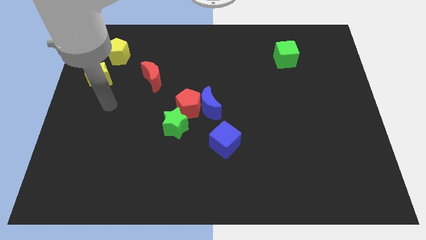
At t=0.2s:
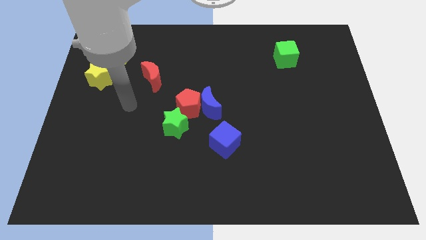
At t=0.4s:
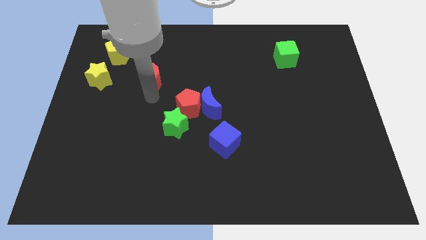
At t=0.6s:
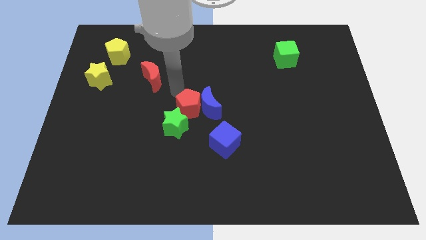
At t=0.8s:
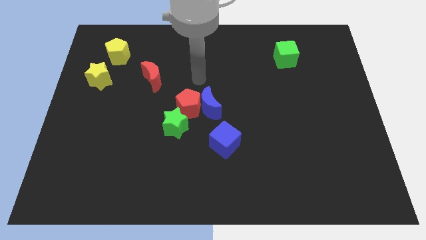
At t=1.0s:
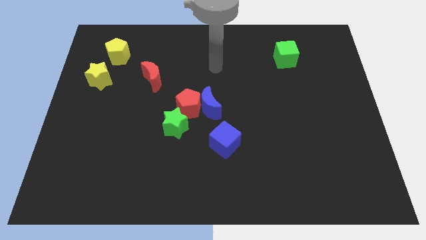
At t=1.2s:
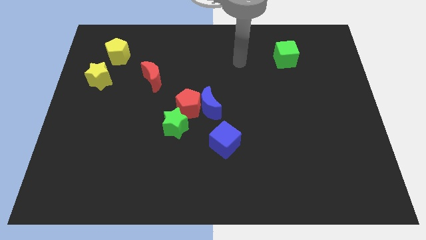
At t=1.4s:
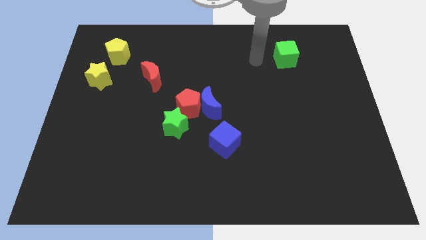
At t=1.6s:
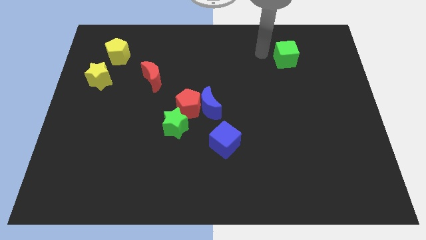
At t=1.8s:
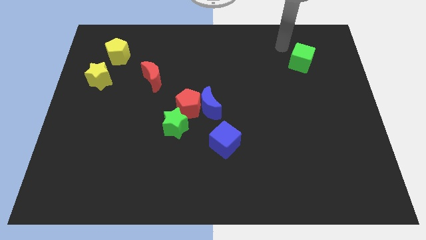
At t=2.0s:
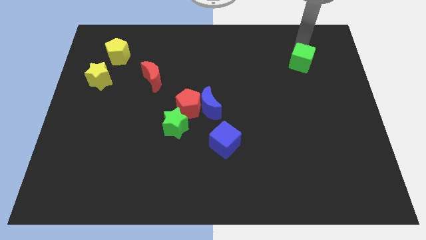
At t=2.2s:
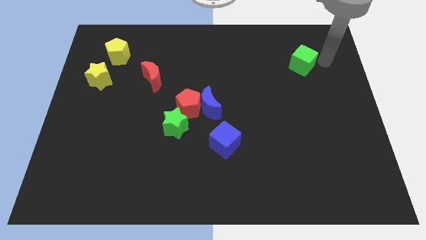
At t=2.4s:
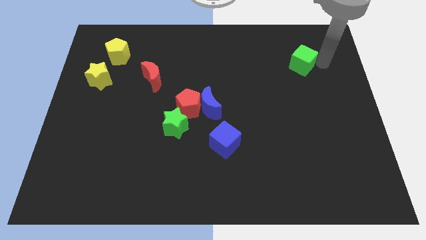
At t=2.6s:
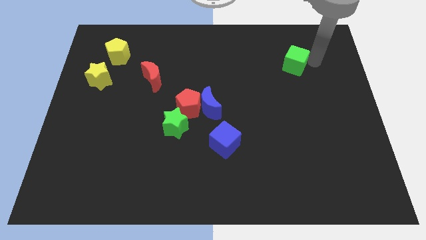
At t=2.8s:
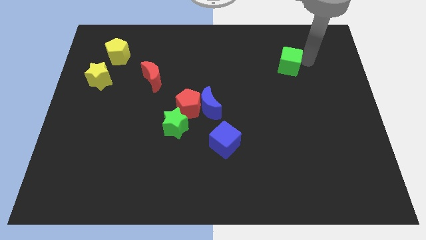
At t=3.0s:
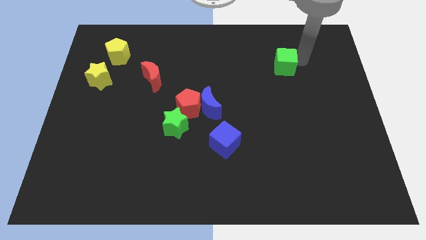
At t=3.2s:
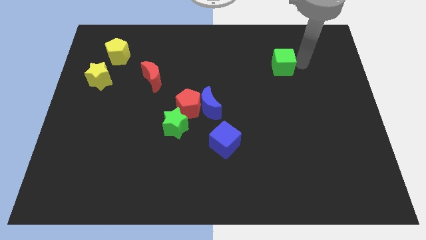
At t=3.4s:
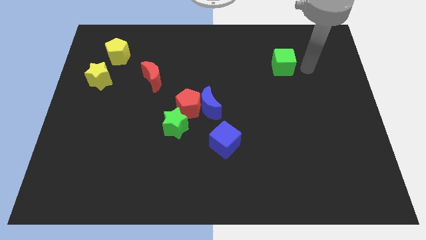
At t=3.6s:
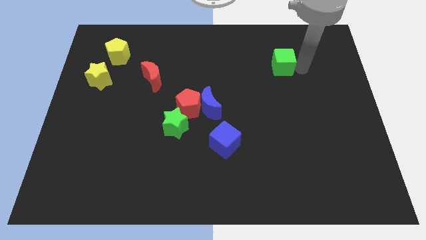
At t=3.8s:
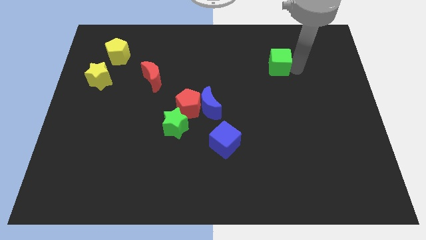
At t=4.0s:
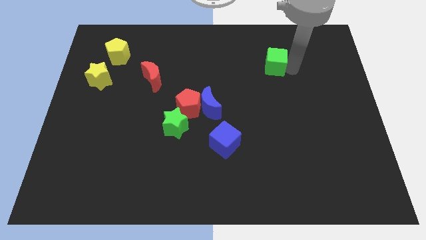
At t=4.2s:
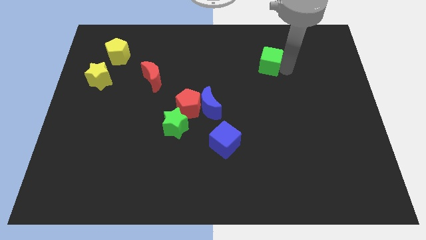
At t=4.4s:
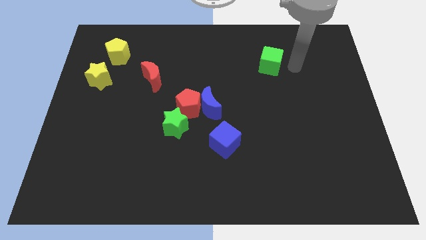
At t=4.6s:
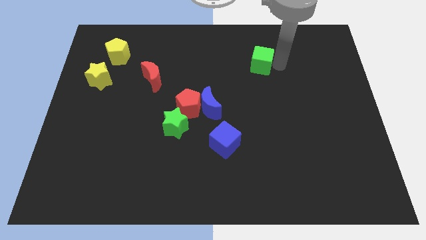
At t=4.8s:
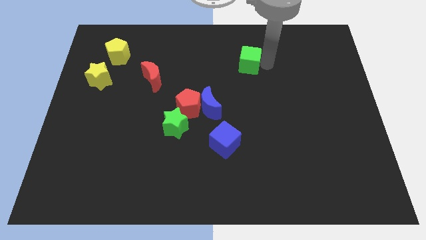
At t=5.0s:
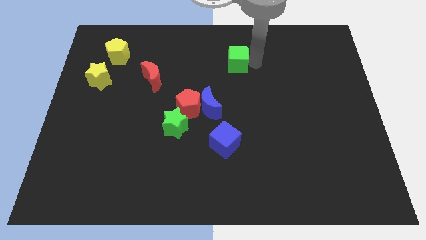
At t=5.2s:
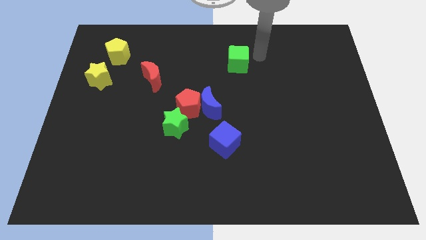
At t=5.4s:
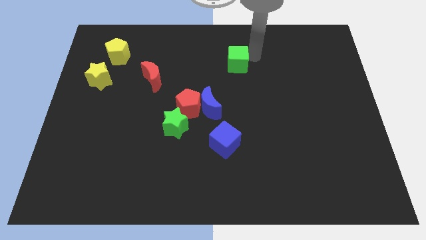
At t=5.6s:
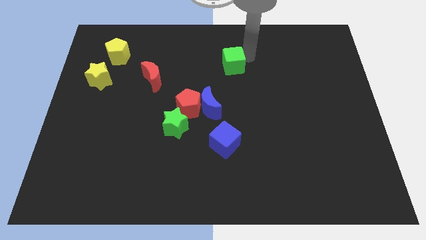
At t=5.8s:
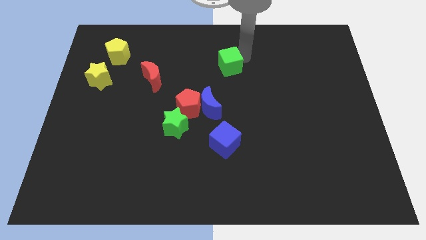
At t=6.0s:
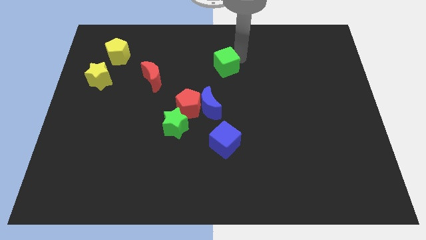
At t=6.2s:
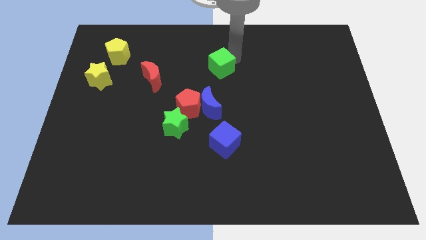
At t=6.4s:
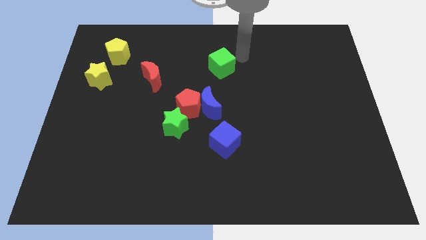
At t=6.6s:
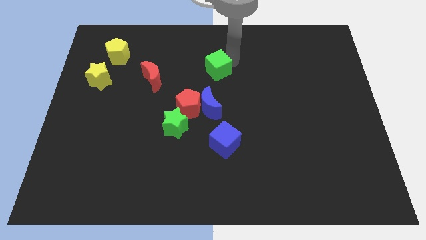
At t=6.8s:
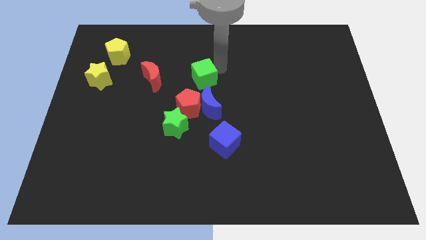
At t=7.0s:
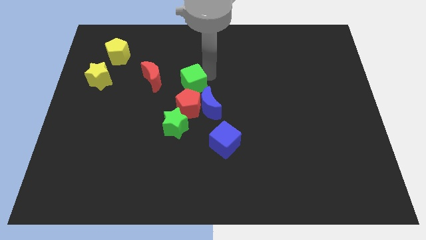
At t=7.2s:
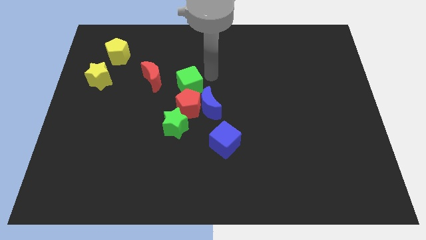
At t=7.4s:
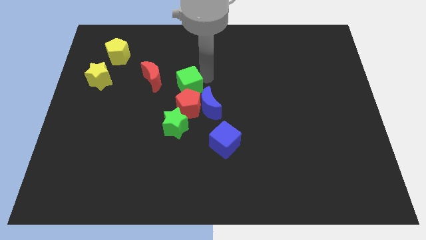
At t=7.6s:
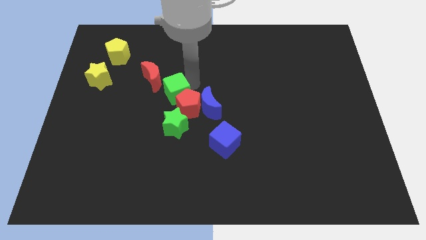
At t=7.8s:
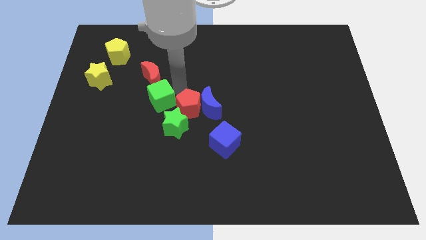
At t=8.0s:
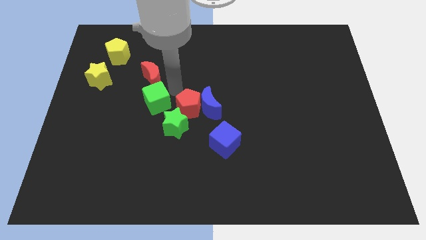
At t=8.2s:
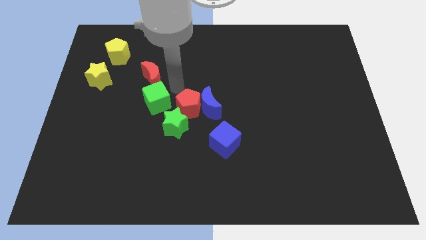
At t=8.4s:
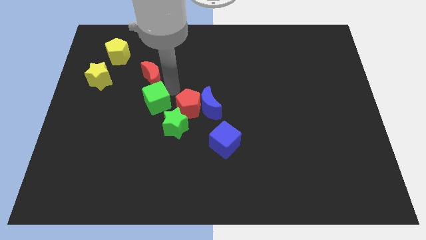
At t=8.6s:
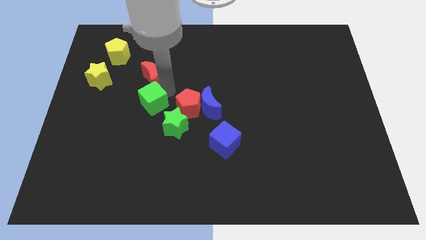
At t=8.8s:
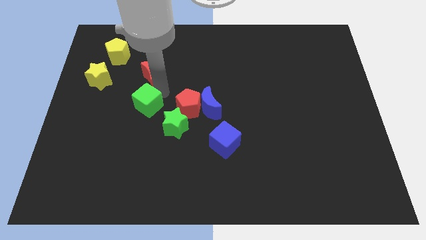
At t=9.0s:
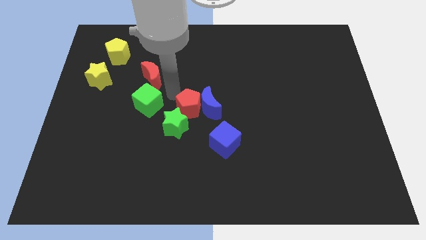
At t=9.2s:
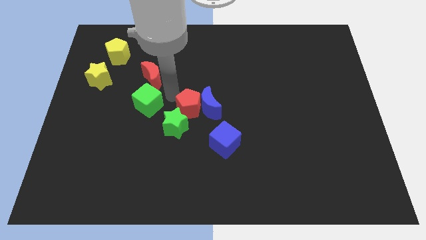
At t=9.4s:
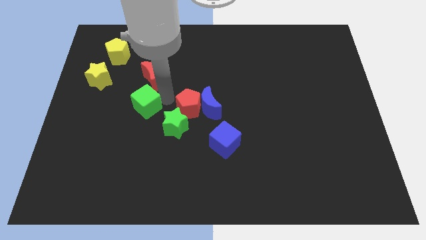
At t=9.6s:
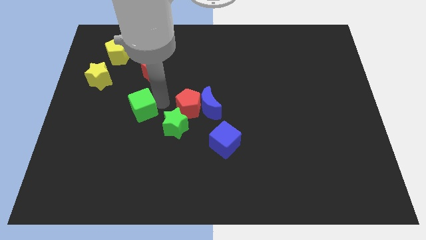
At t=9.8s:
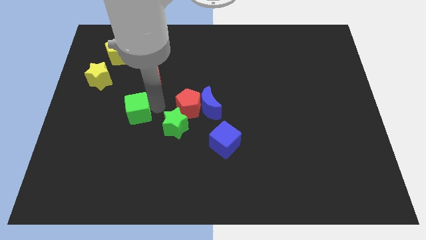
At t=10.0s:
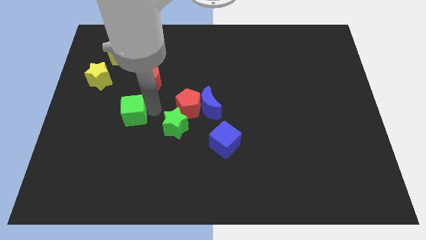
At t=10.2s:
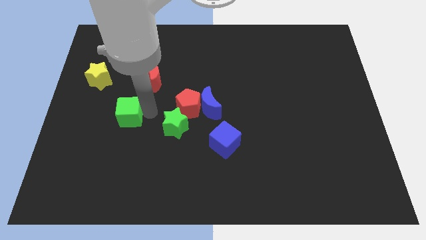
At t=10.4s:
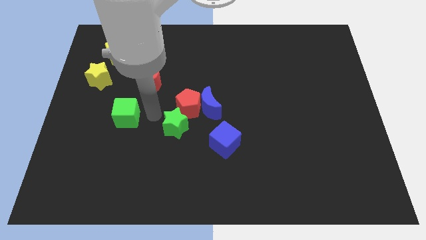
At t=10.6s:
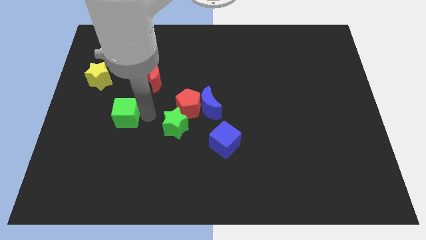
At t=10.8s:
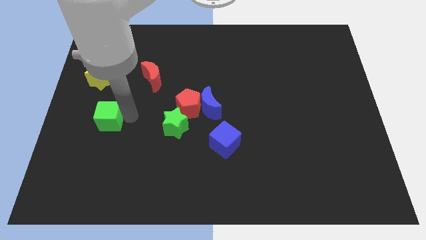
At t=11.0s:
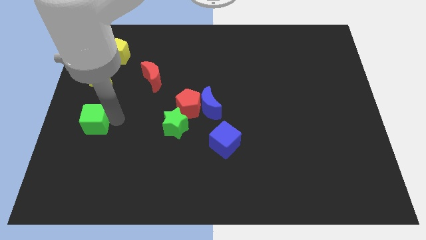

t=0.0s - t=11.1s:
move the green cube to the left side of the board

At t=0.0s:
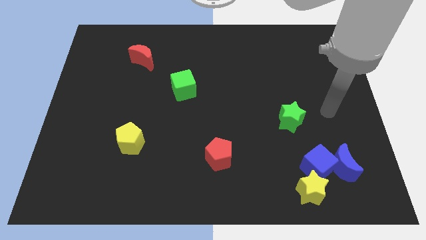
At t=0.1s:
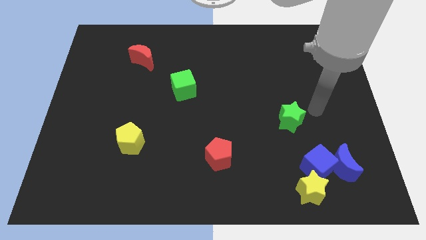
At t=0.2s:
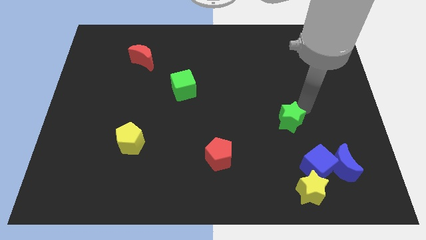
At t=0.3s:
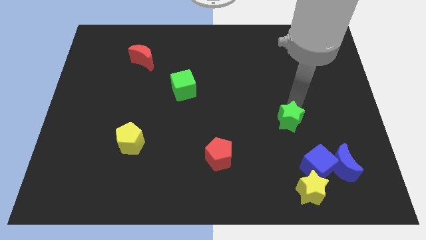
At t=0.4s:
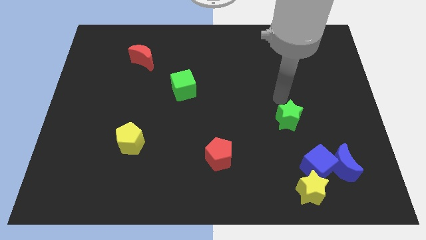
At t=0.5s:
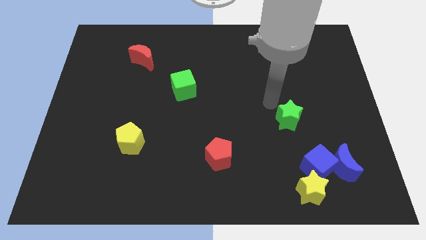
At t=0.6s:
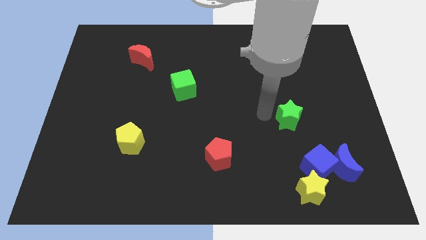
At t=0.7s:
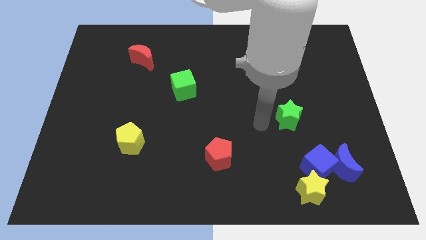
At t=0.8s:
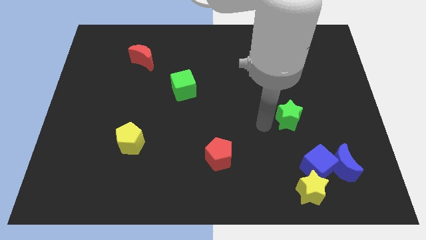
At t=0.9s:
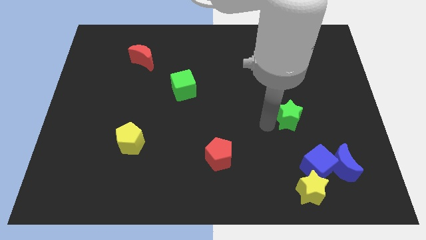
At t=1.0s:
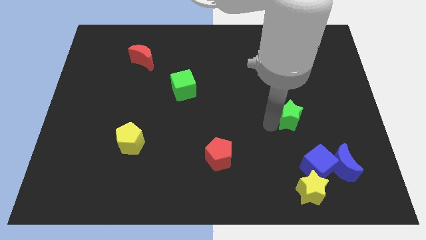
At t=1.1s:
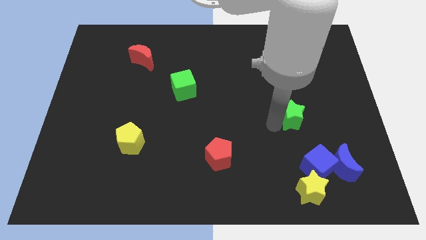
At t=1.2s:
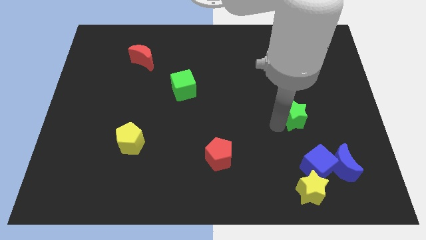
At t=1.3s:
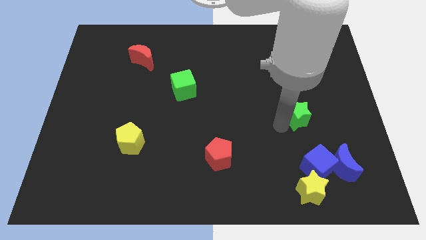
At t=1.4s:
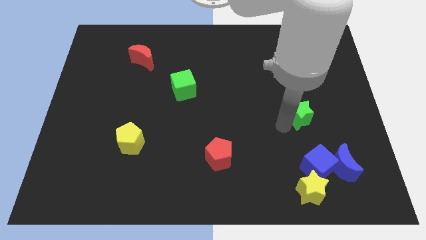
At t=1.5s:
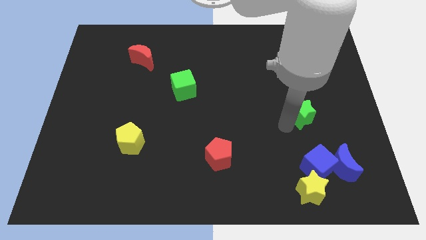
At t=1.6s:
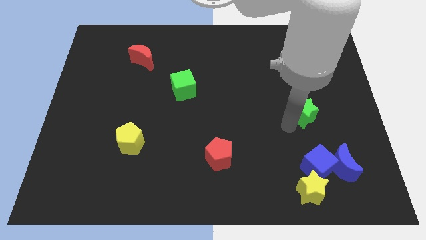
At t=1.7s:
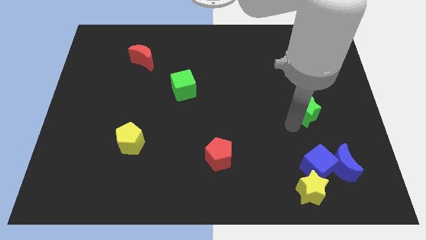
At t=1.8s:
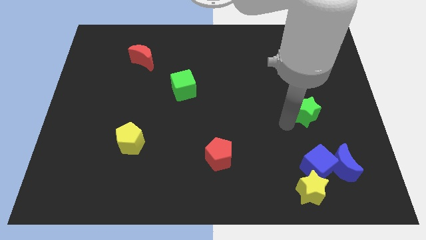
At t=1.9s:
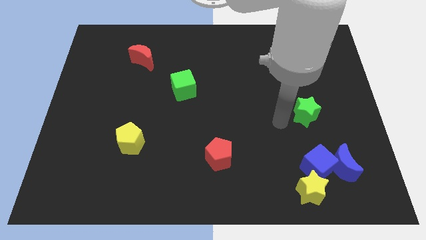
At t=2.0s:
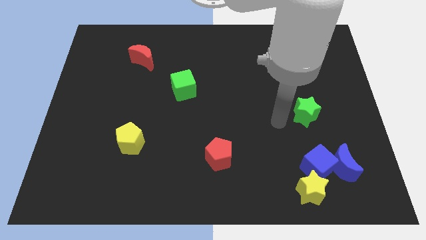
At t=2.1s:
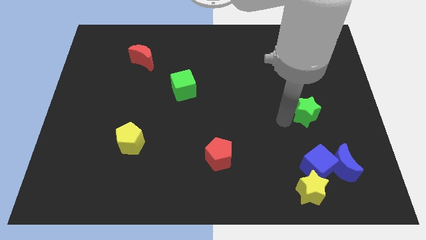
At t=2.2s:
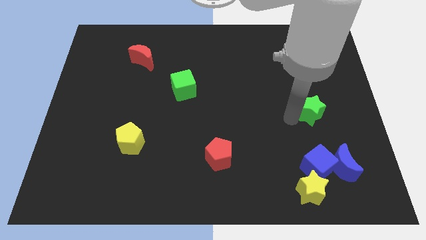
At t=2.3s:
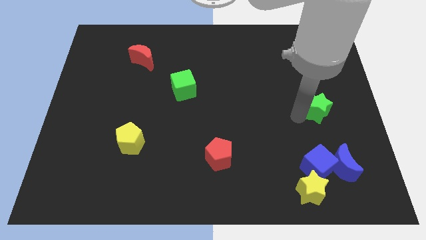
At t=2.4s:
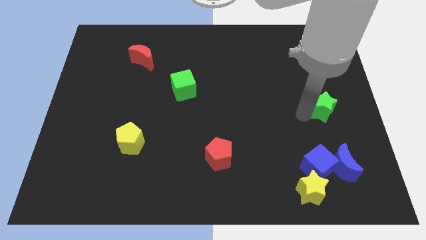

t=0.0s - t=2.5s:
push the green star to the right side of the board
